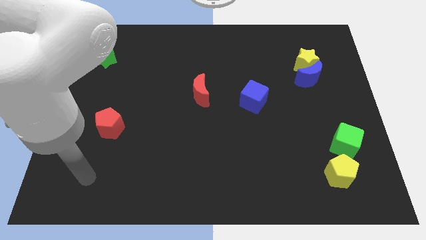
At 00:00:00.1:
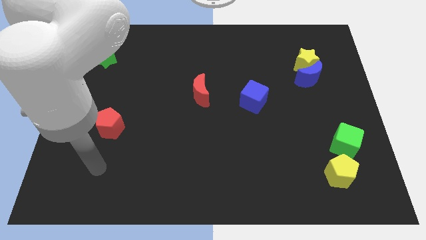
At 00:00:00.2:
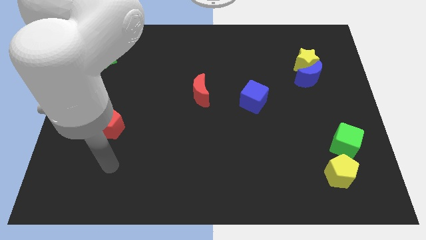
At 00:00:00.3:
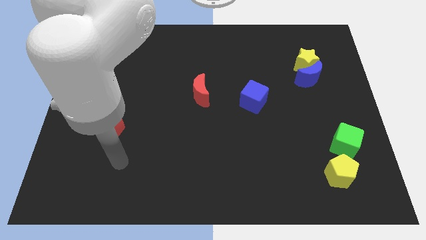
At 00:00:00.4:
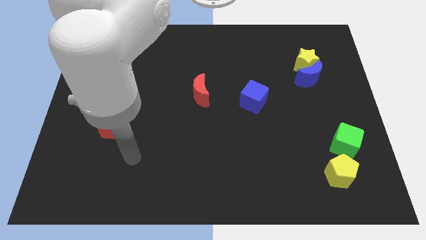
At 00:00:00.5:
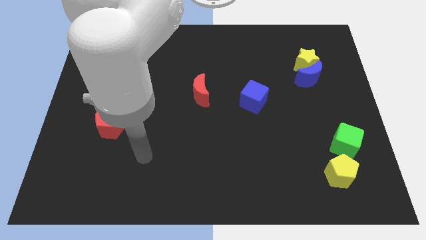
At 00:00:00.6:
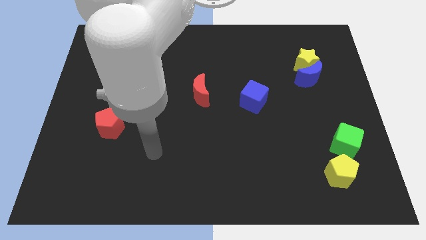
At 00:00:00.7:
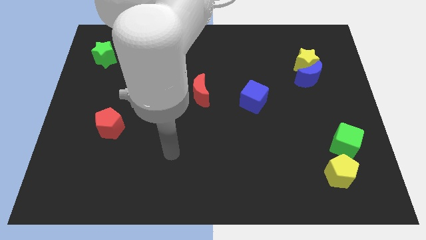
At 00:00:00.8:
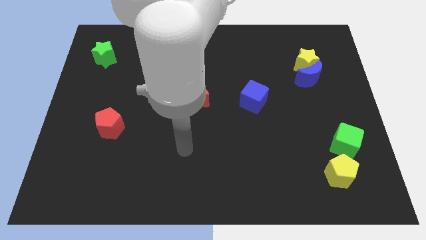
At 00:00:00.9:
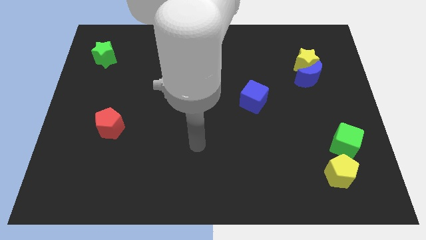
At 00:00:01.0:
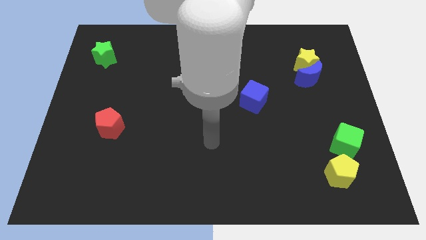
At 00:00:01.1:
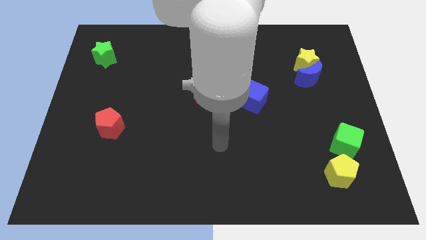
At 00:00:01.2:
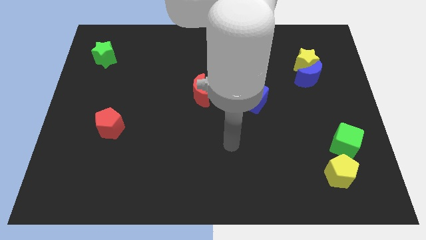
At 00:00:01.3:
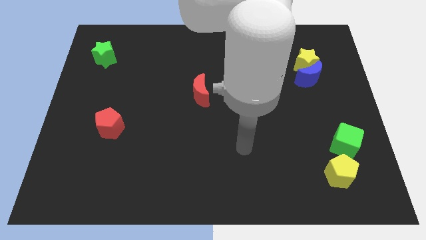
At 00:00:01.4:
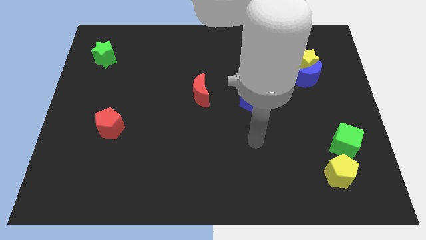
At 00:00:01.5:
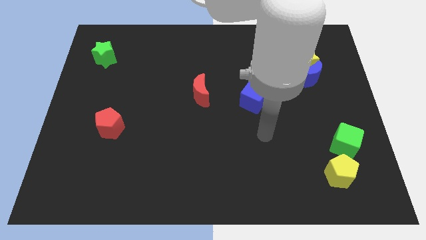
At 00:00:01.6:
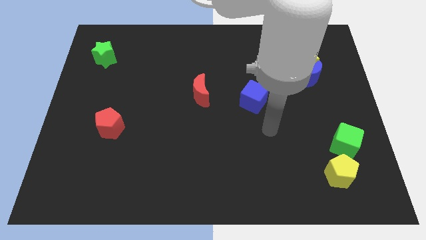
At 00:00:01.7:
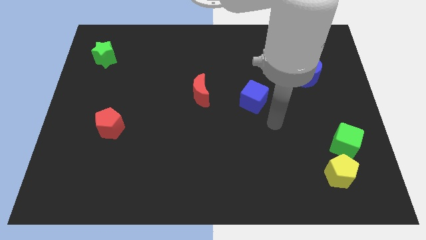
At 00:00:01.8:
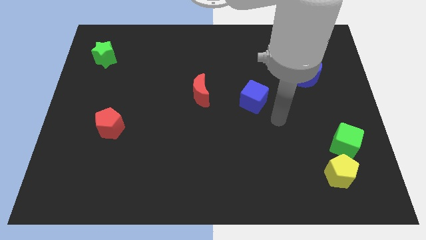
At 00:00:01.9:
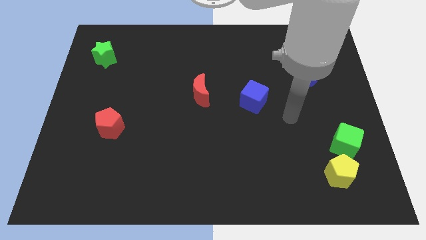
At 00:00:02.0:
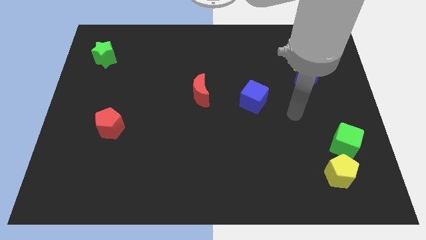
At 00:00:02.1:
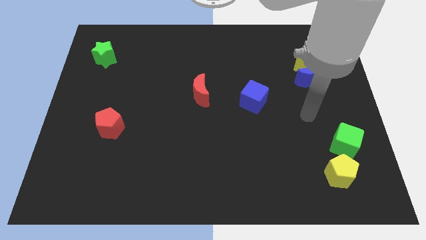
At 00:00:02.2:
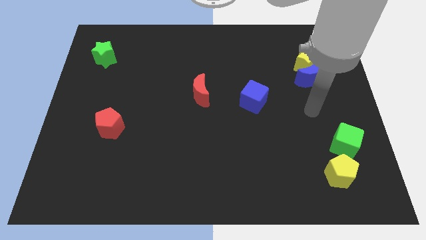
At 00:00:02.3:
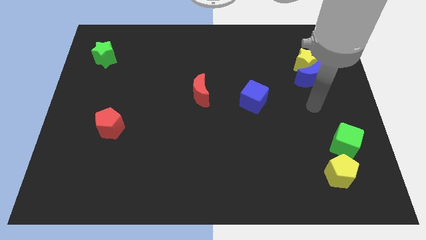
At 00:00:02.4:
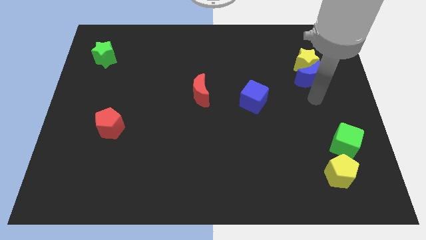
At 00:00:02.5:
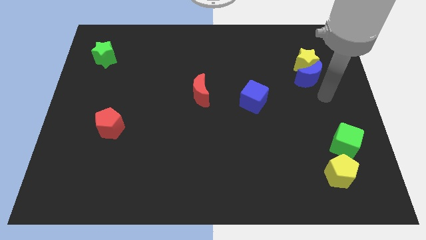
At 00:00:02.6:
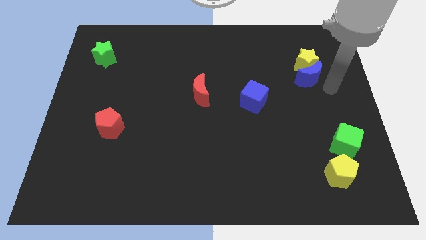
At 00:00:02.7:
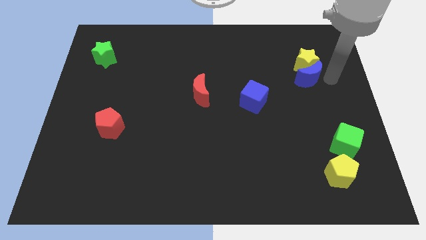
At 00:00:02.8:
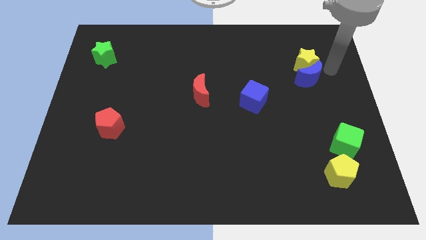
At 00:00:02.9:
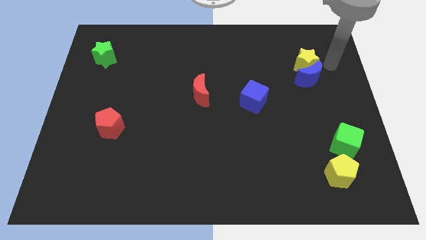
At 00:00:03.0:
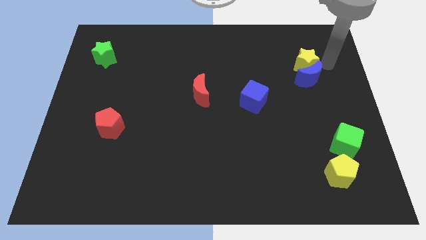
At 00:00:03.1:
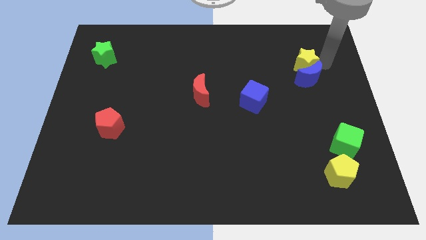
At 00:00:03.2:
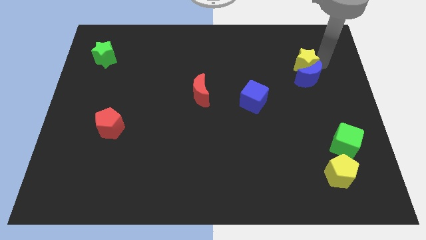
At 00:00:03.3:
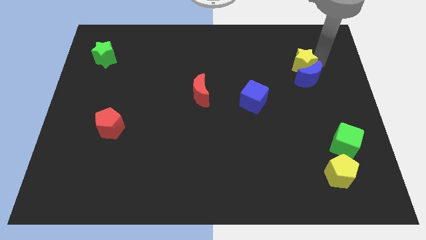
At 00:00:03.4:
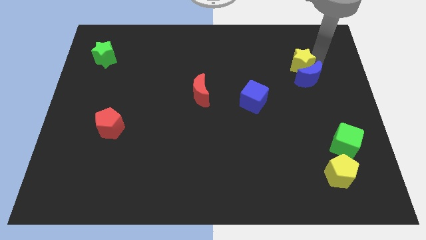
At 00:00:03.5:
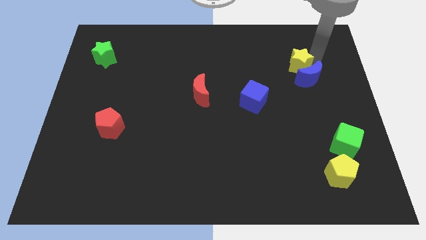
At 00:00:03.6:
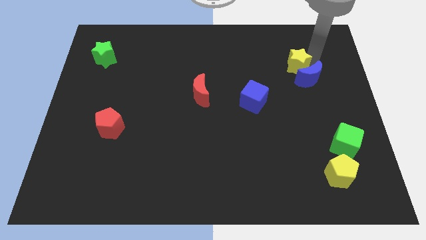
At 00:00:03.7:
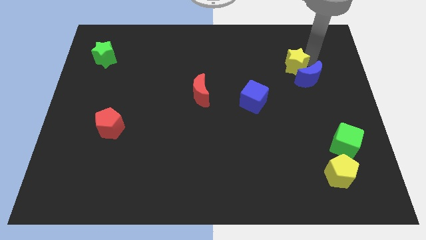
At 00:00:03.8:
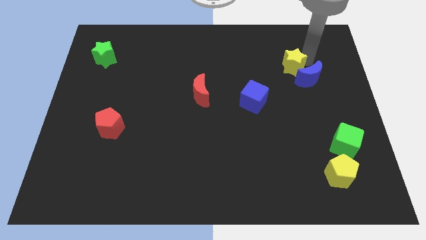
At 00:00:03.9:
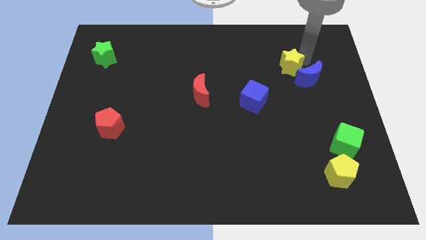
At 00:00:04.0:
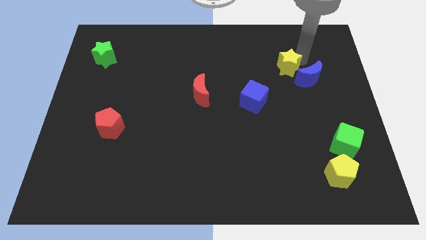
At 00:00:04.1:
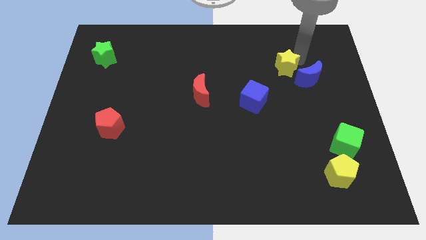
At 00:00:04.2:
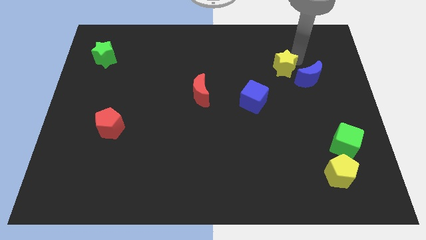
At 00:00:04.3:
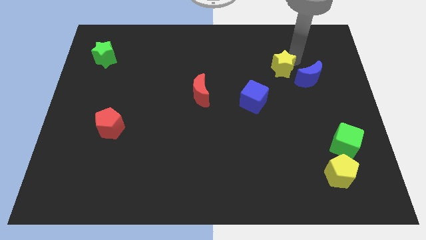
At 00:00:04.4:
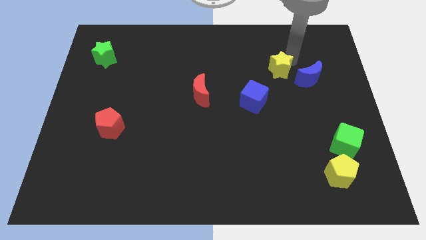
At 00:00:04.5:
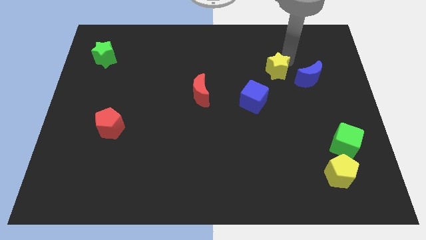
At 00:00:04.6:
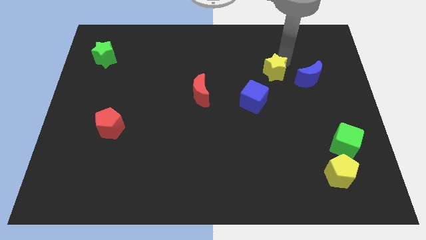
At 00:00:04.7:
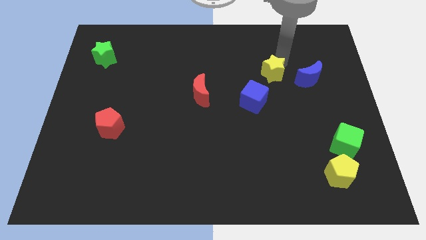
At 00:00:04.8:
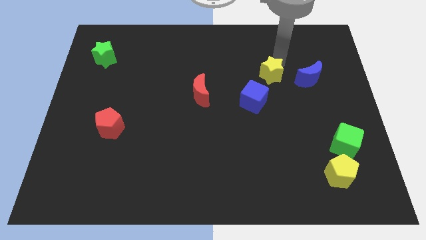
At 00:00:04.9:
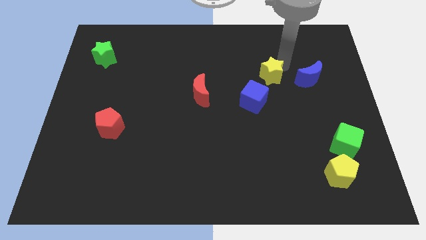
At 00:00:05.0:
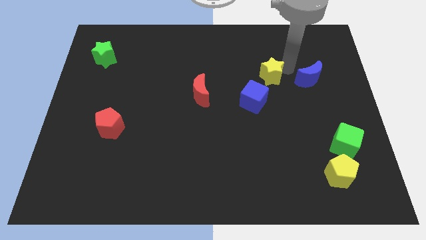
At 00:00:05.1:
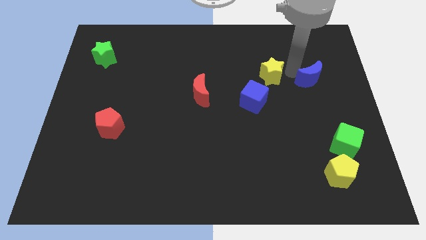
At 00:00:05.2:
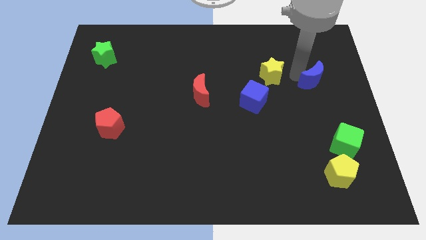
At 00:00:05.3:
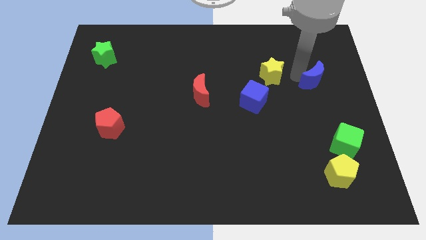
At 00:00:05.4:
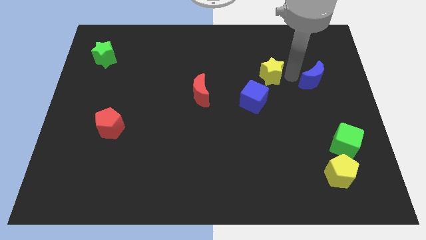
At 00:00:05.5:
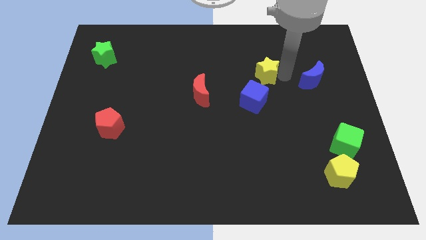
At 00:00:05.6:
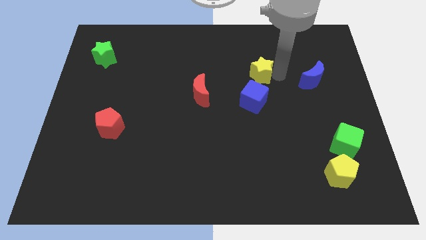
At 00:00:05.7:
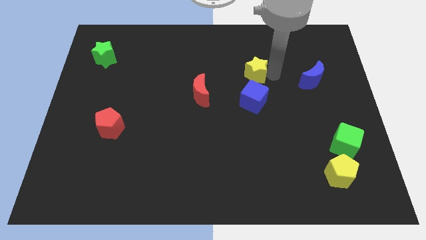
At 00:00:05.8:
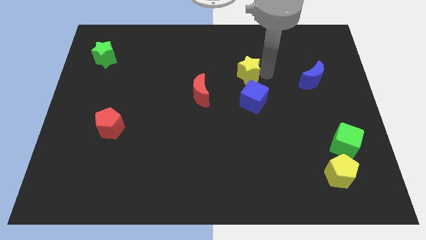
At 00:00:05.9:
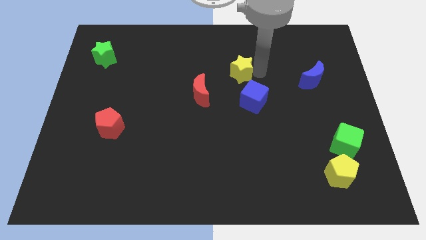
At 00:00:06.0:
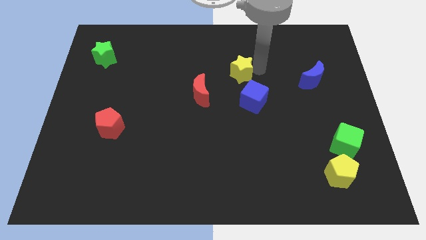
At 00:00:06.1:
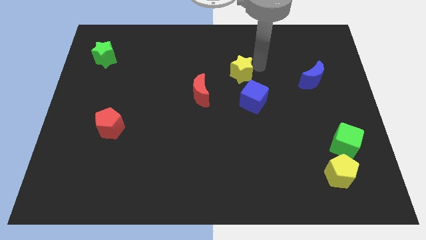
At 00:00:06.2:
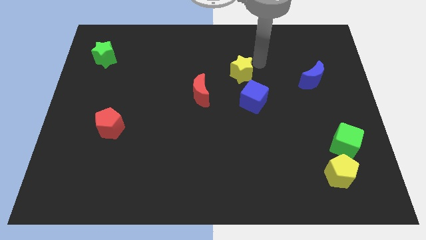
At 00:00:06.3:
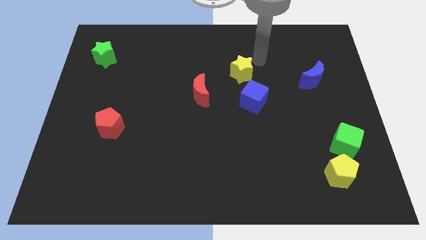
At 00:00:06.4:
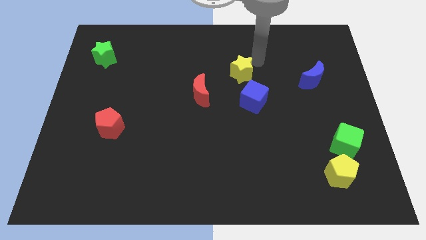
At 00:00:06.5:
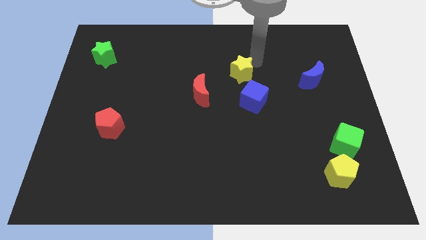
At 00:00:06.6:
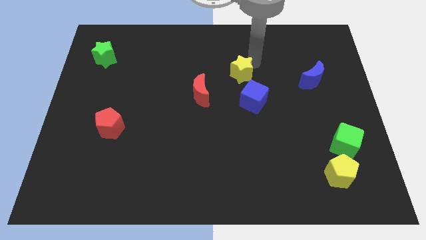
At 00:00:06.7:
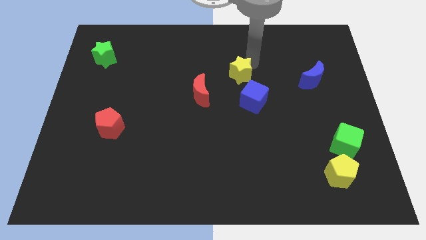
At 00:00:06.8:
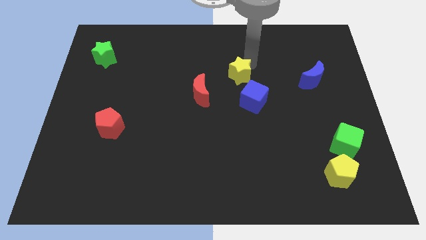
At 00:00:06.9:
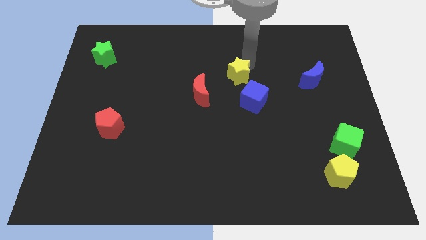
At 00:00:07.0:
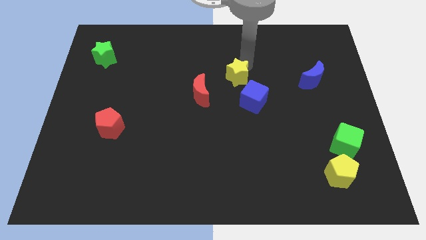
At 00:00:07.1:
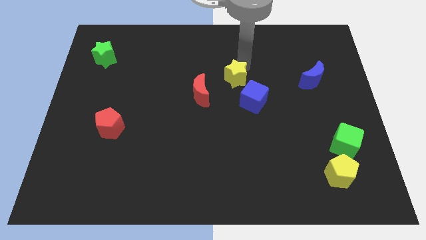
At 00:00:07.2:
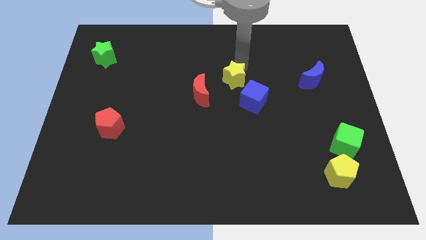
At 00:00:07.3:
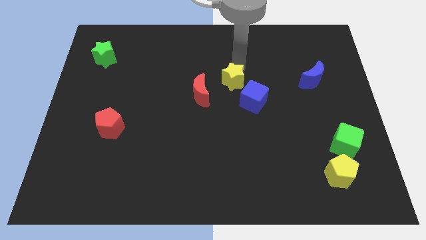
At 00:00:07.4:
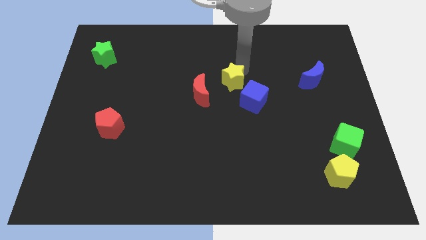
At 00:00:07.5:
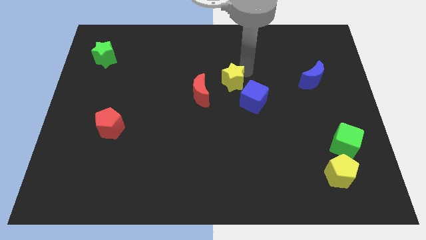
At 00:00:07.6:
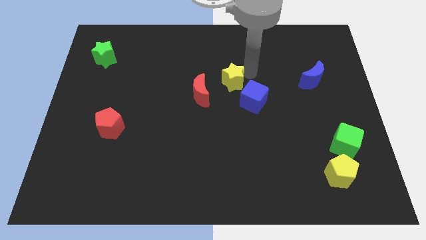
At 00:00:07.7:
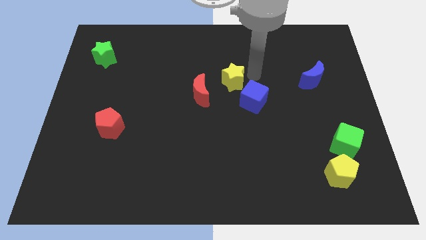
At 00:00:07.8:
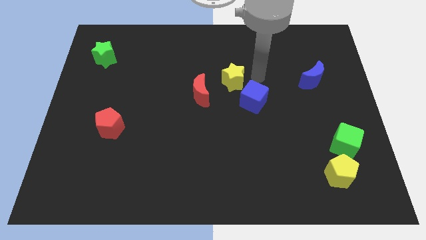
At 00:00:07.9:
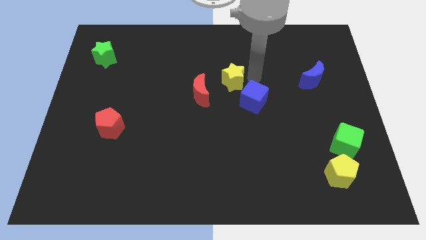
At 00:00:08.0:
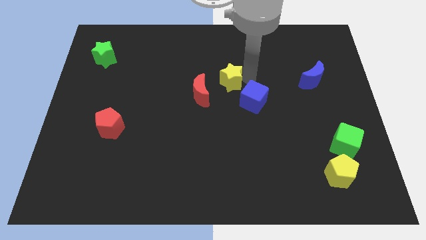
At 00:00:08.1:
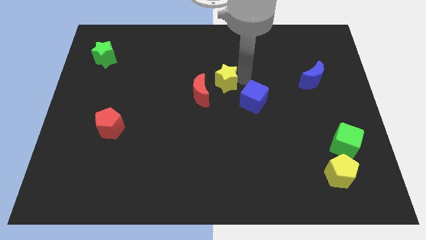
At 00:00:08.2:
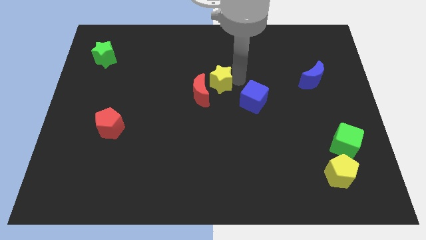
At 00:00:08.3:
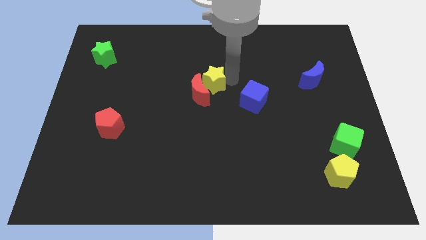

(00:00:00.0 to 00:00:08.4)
slide the yellow star to the red moon
